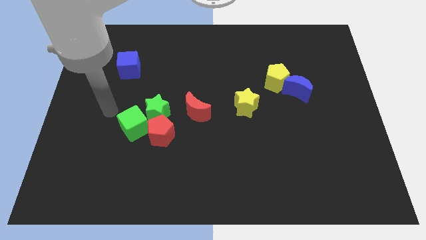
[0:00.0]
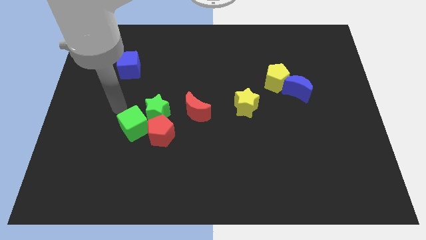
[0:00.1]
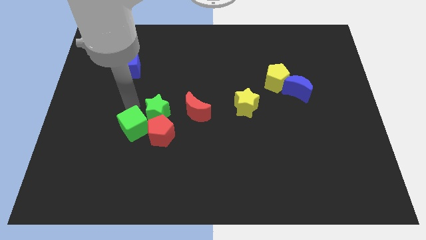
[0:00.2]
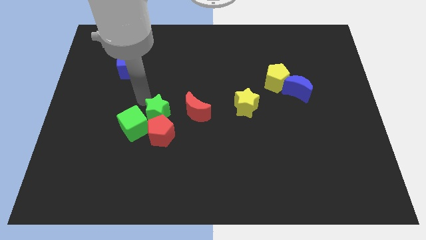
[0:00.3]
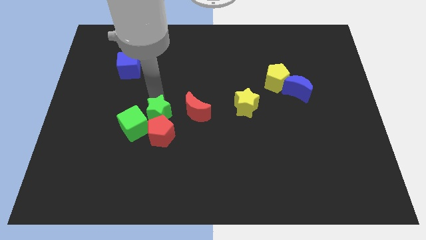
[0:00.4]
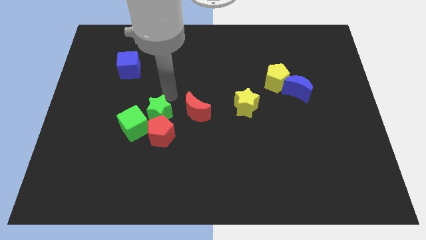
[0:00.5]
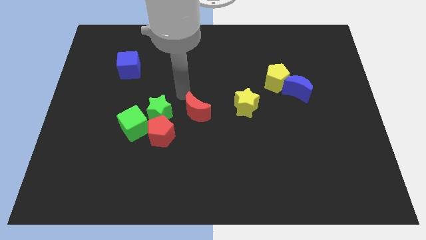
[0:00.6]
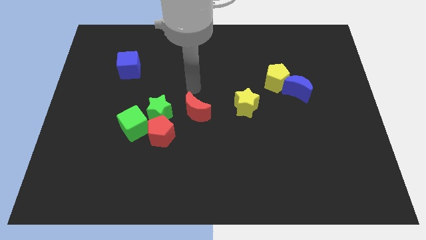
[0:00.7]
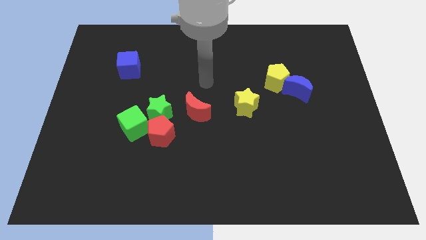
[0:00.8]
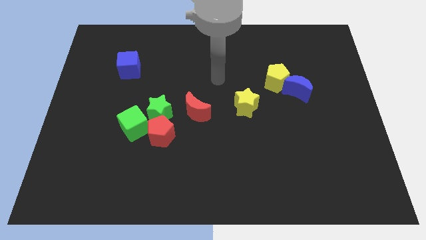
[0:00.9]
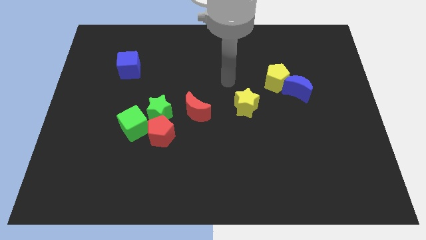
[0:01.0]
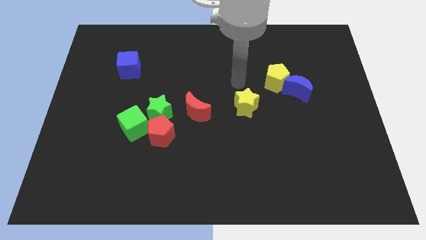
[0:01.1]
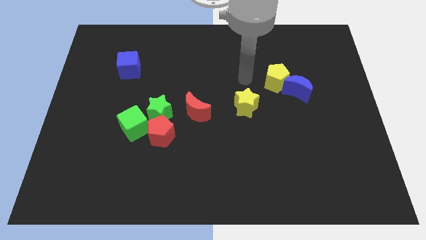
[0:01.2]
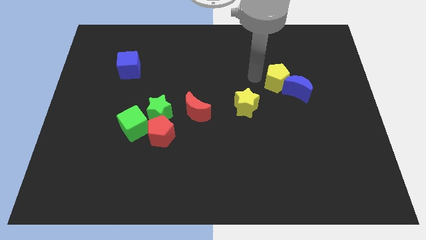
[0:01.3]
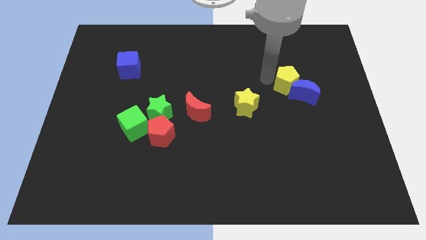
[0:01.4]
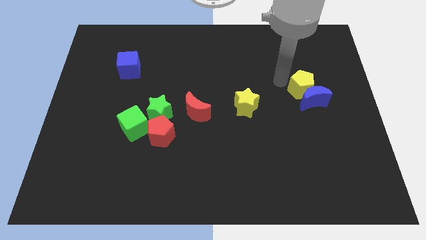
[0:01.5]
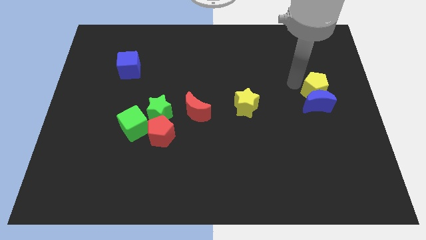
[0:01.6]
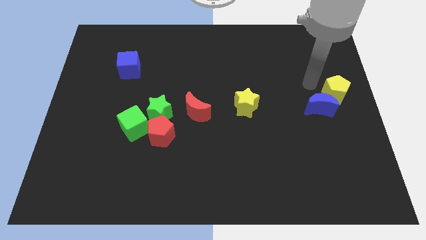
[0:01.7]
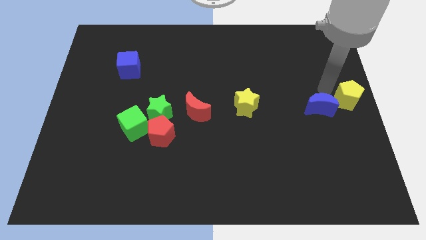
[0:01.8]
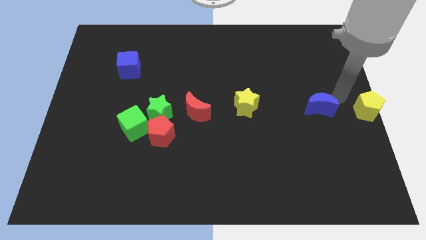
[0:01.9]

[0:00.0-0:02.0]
pull the blue moon apart from the yellow pentagon

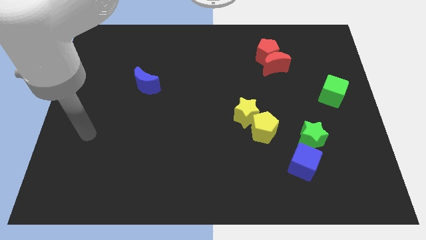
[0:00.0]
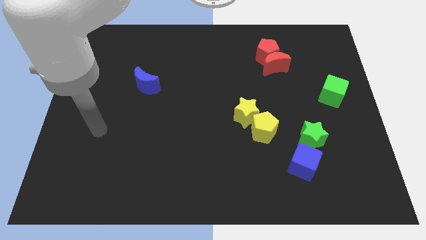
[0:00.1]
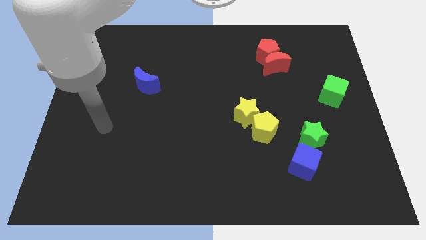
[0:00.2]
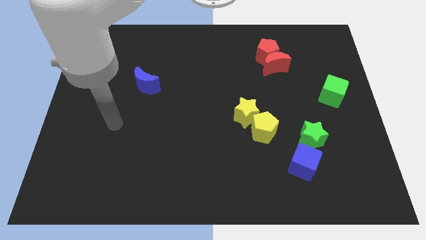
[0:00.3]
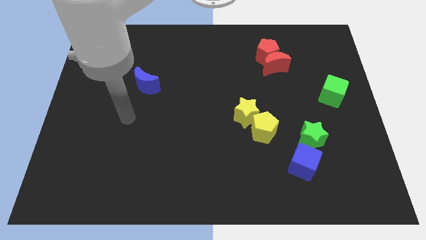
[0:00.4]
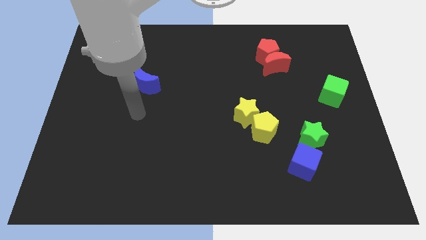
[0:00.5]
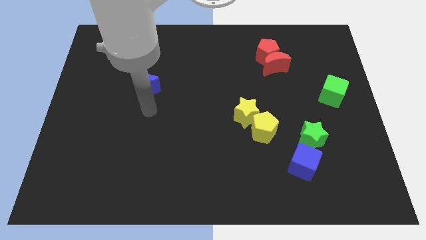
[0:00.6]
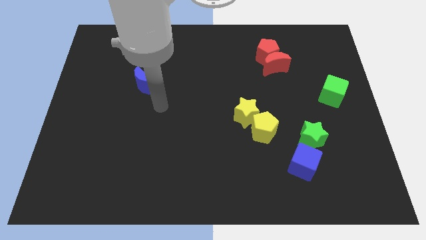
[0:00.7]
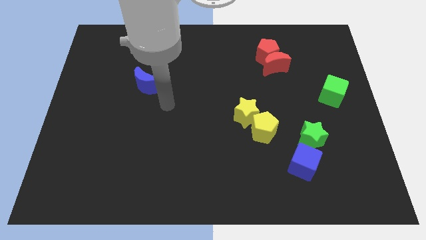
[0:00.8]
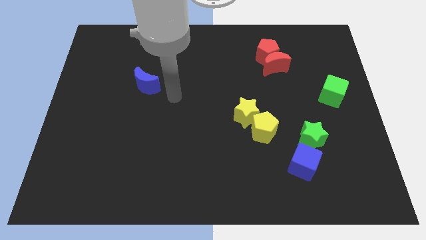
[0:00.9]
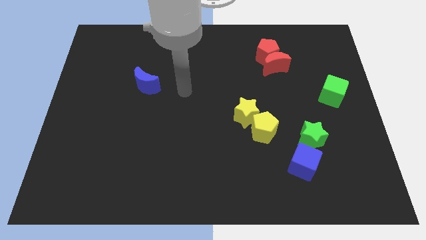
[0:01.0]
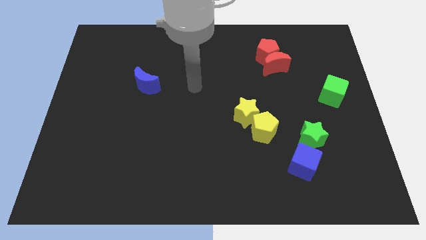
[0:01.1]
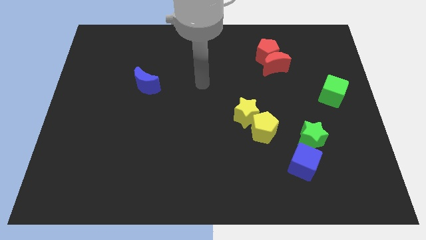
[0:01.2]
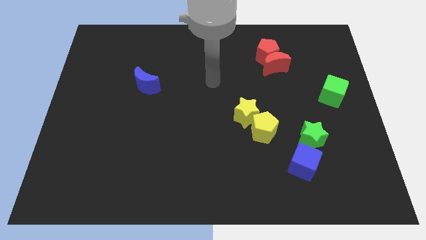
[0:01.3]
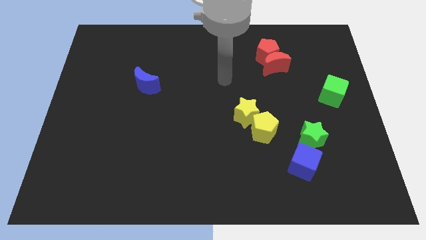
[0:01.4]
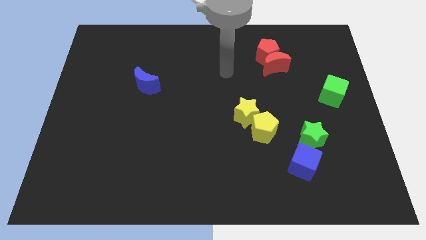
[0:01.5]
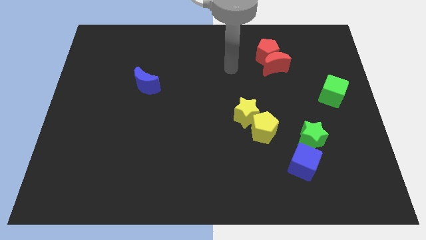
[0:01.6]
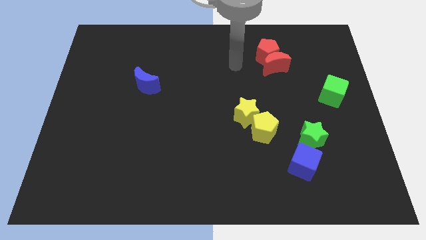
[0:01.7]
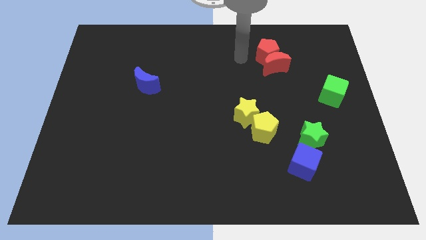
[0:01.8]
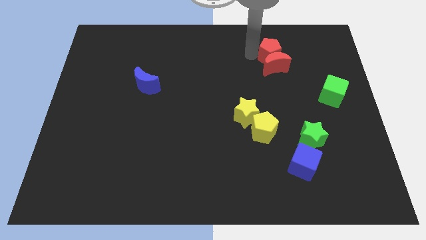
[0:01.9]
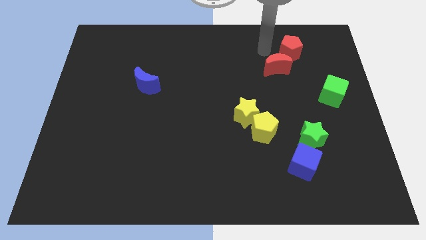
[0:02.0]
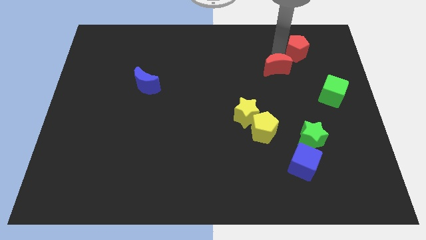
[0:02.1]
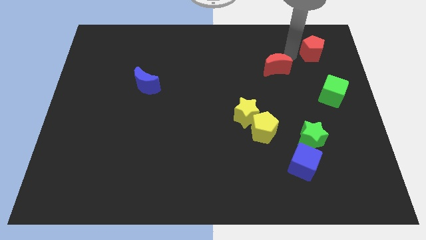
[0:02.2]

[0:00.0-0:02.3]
pull the red moon apart from the red pentagon

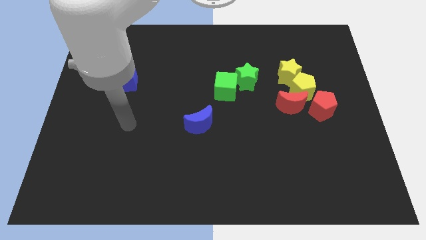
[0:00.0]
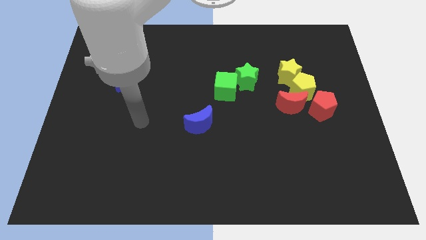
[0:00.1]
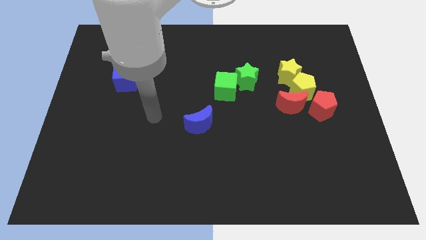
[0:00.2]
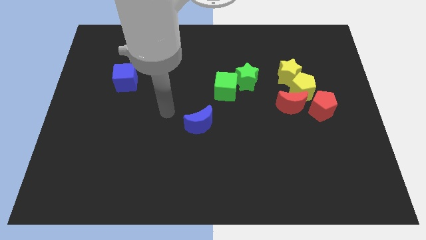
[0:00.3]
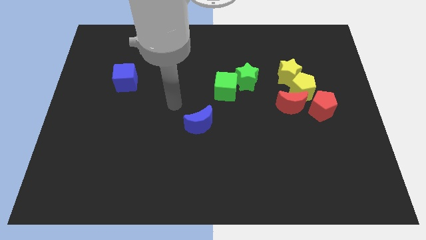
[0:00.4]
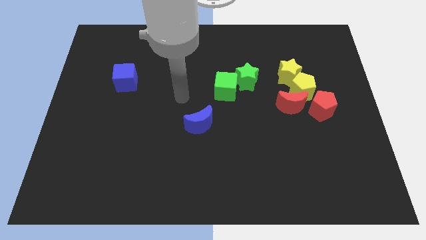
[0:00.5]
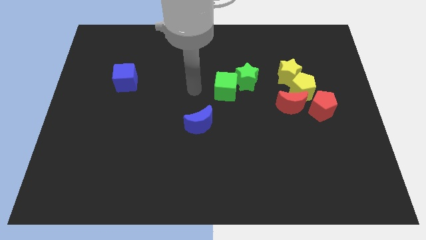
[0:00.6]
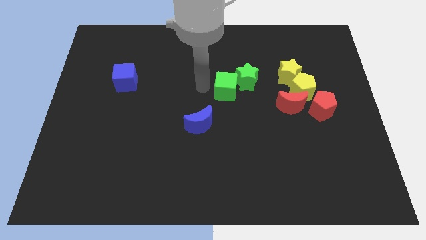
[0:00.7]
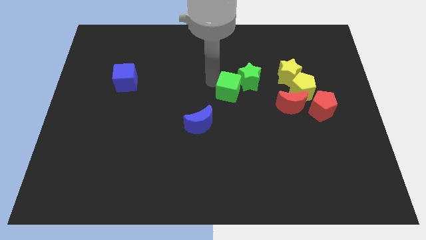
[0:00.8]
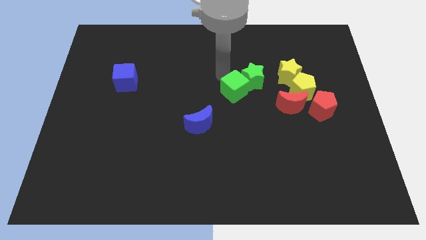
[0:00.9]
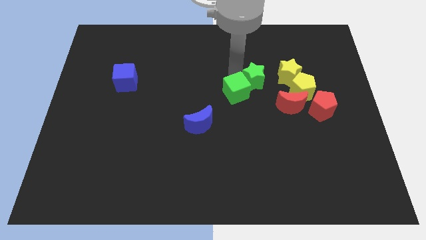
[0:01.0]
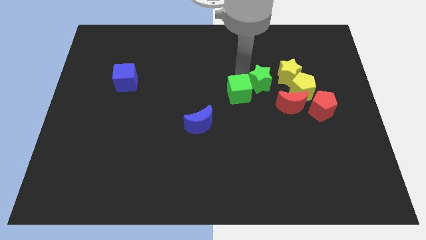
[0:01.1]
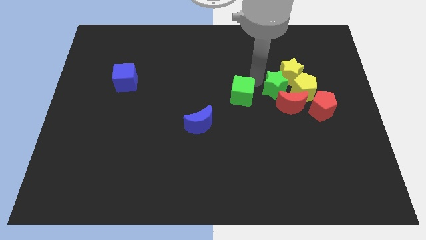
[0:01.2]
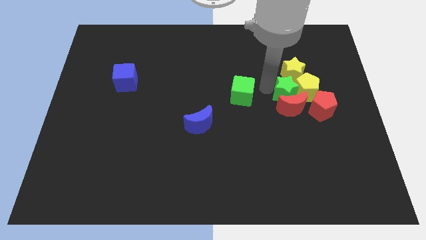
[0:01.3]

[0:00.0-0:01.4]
separate the green cube from the green star

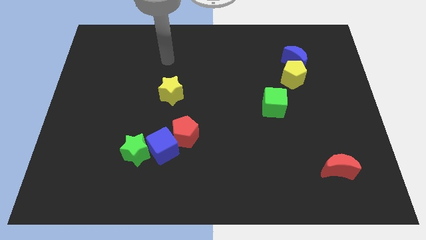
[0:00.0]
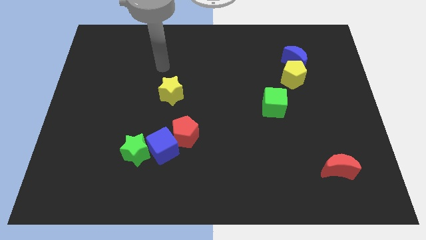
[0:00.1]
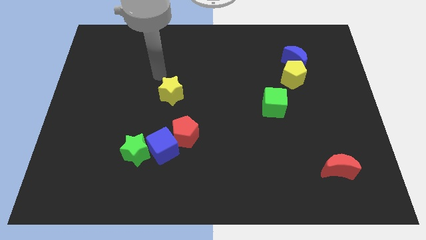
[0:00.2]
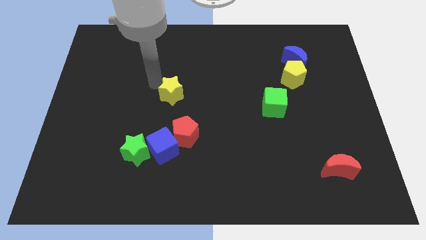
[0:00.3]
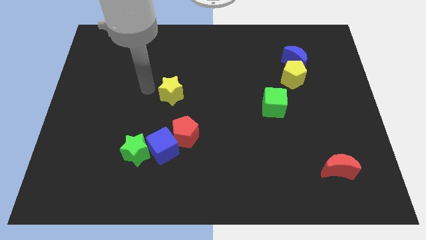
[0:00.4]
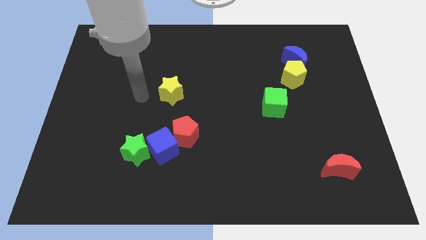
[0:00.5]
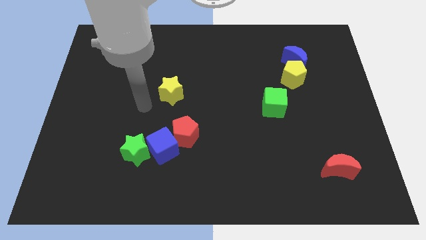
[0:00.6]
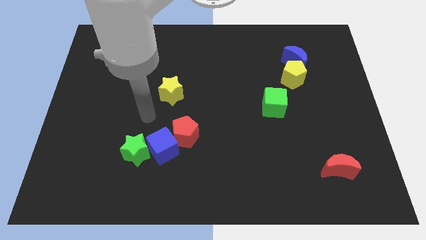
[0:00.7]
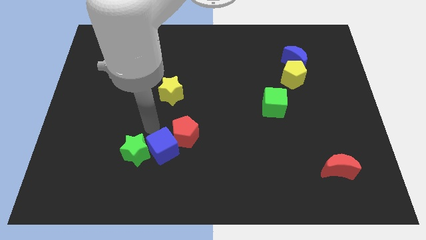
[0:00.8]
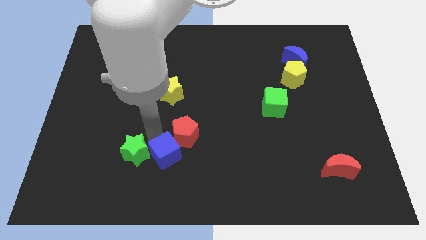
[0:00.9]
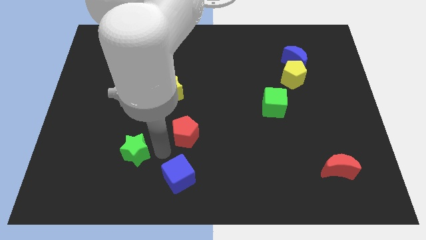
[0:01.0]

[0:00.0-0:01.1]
pull the red pentagon apart from the blue cube

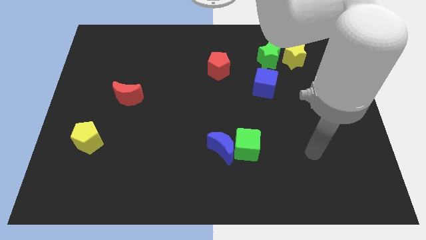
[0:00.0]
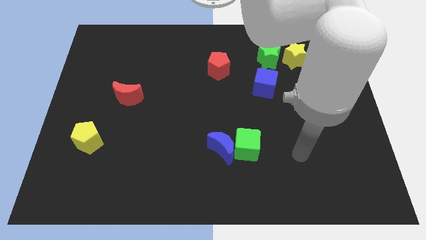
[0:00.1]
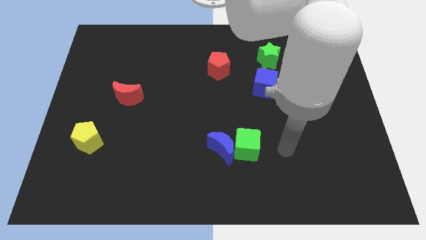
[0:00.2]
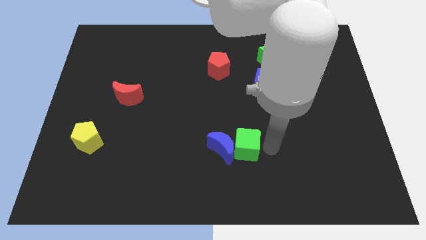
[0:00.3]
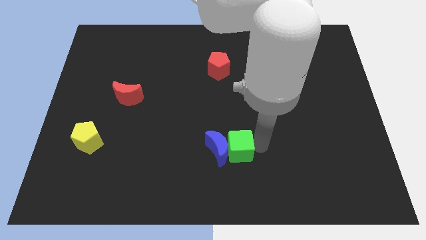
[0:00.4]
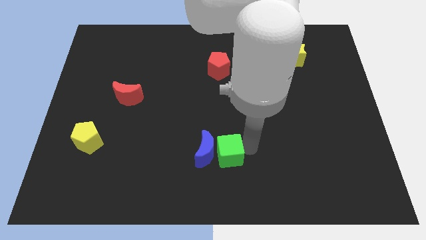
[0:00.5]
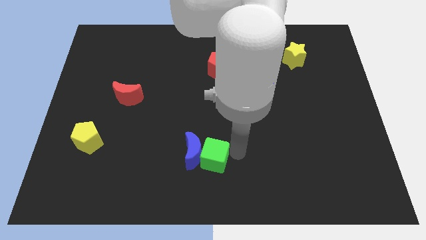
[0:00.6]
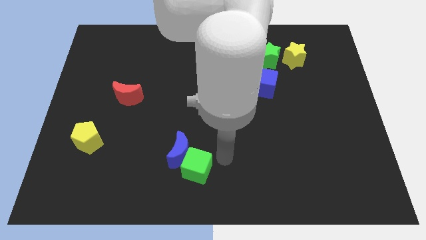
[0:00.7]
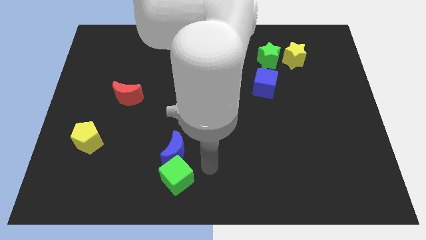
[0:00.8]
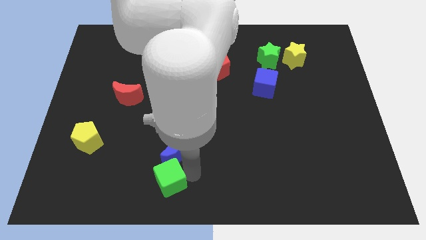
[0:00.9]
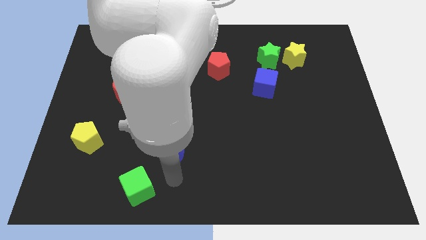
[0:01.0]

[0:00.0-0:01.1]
pull the blue moon apart from the green cube

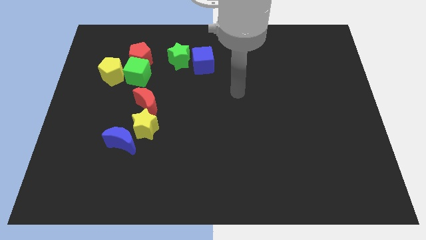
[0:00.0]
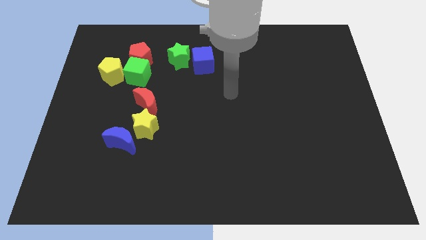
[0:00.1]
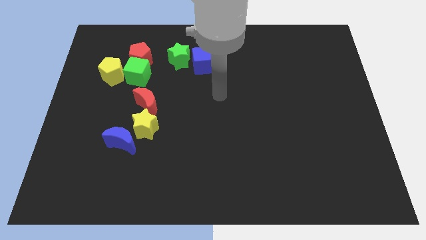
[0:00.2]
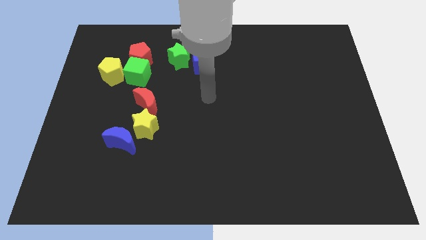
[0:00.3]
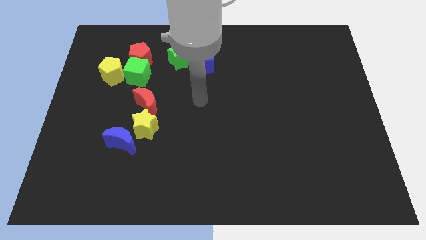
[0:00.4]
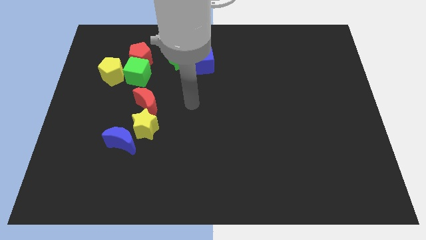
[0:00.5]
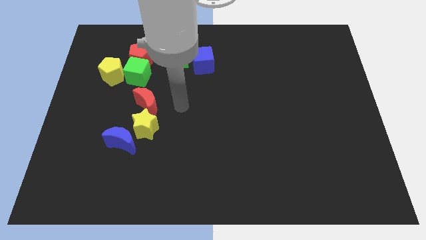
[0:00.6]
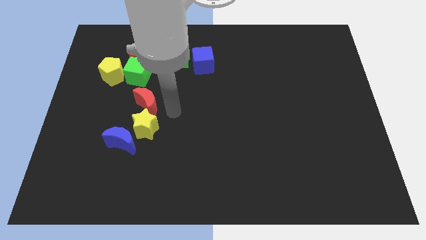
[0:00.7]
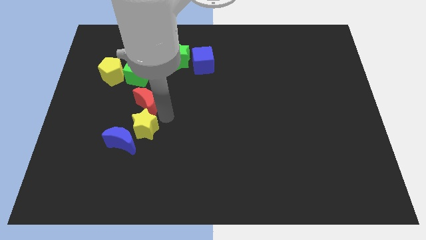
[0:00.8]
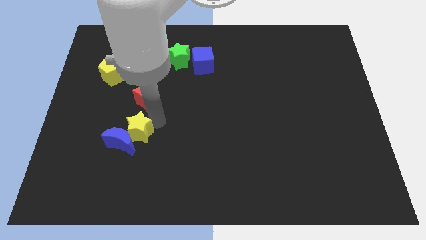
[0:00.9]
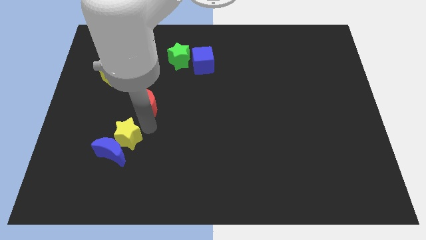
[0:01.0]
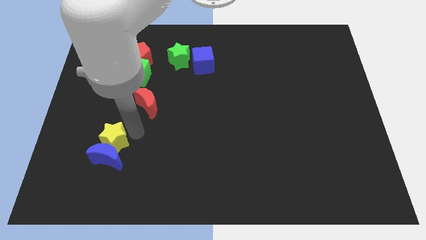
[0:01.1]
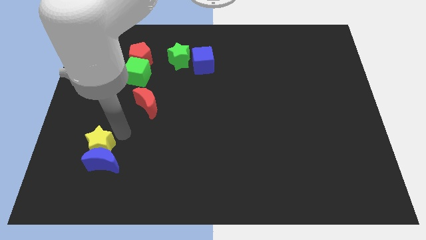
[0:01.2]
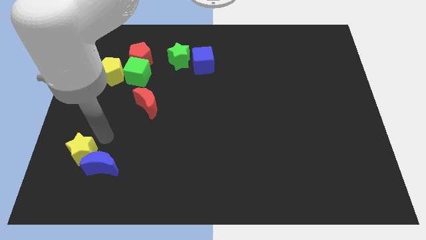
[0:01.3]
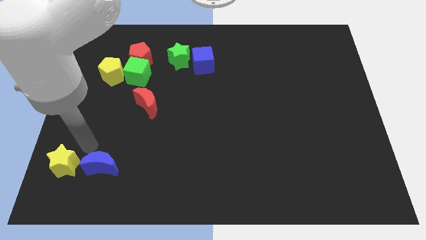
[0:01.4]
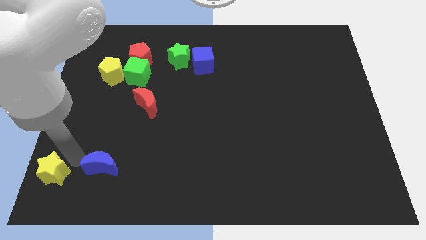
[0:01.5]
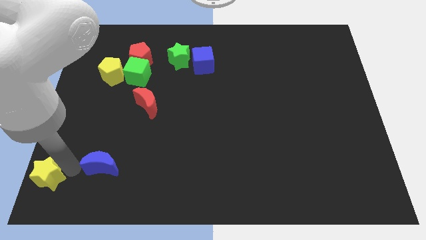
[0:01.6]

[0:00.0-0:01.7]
separate the blue moon from the yellow star
